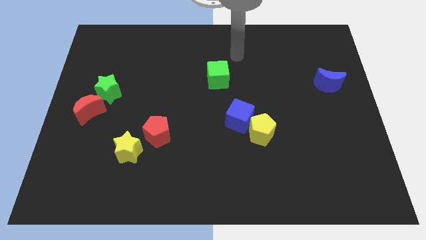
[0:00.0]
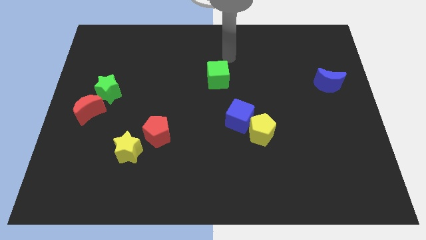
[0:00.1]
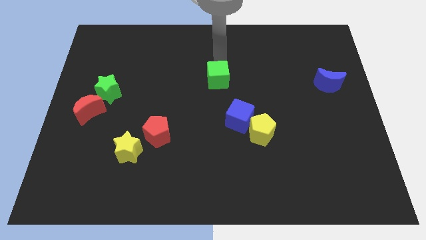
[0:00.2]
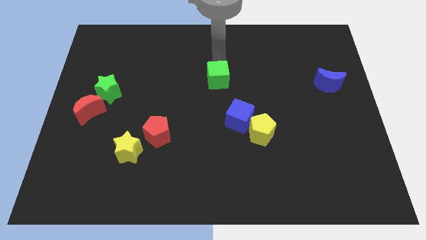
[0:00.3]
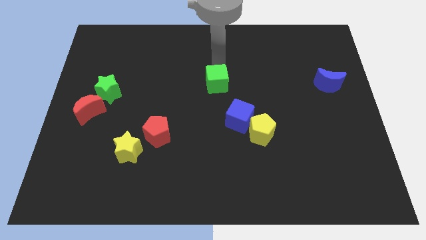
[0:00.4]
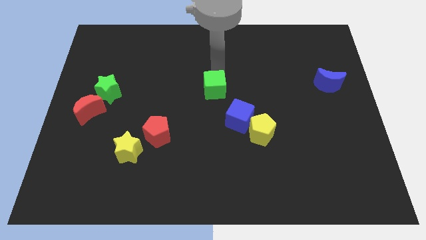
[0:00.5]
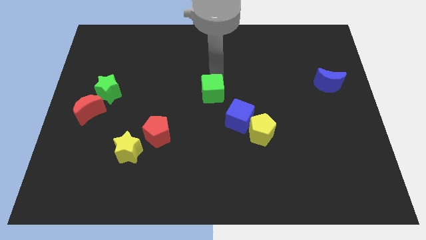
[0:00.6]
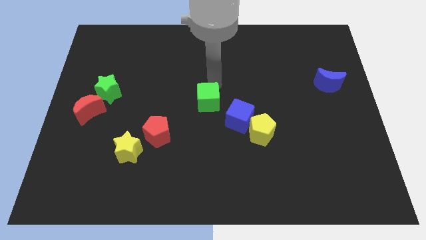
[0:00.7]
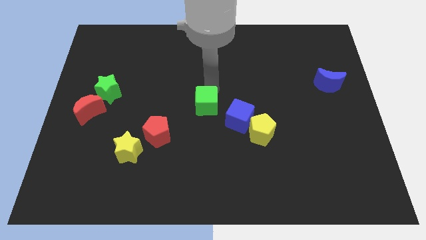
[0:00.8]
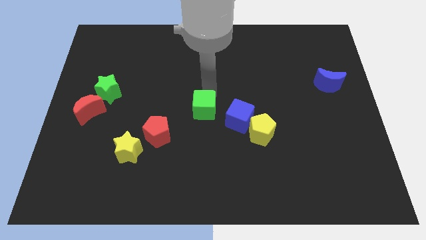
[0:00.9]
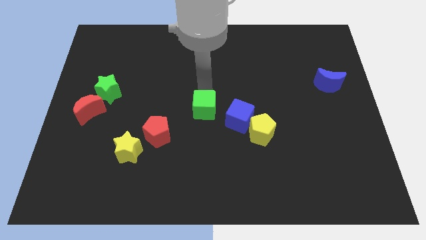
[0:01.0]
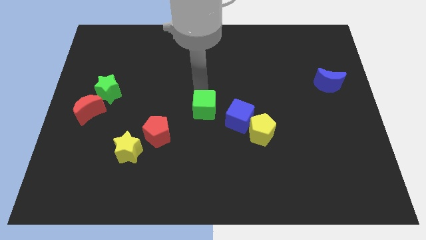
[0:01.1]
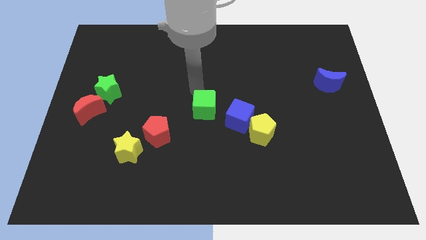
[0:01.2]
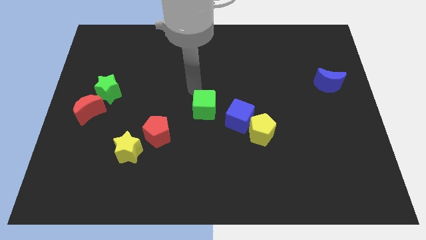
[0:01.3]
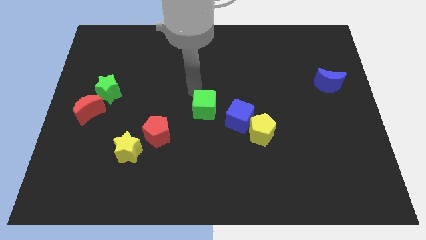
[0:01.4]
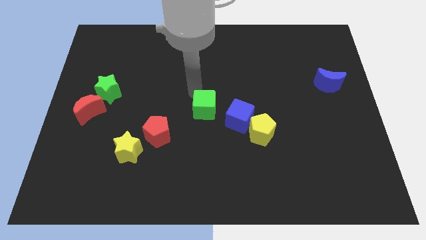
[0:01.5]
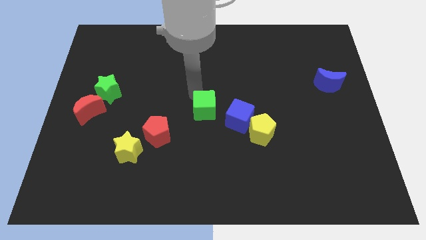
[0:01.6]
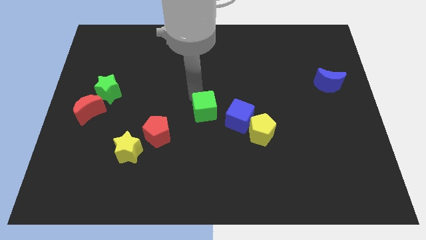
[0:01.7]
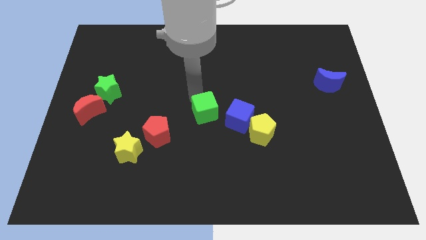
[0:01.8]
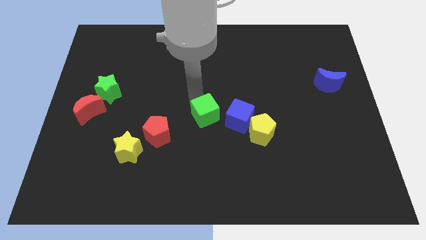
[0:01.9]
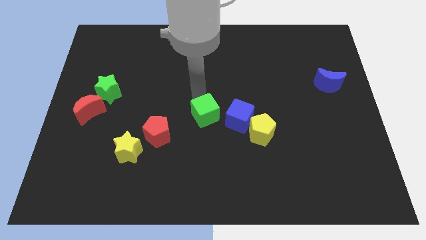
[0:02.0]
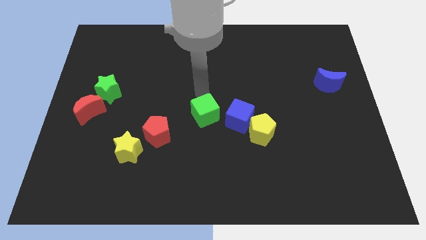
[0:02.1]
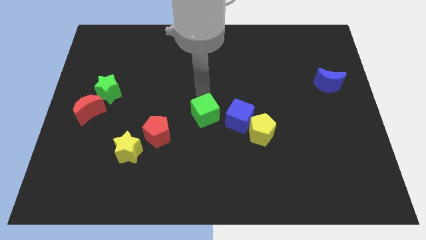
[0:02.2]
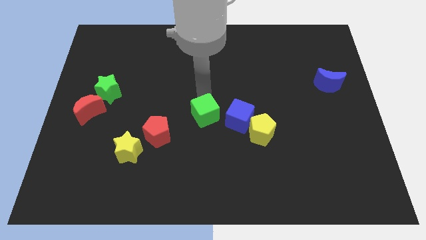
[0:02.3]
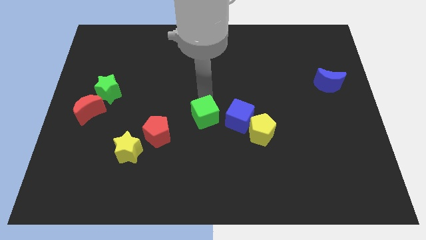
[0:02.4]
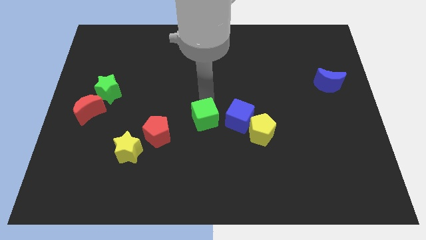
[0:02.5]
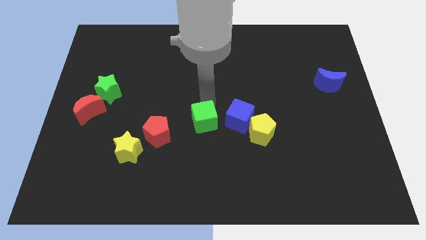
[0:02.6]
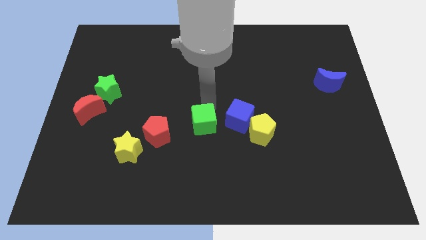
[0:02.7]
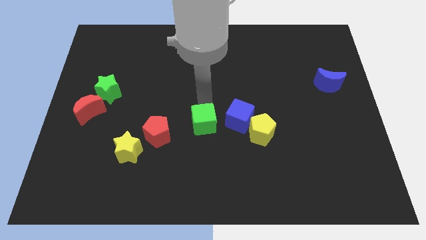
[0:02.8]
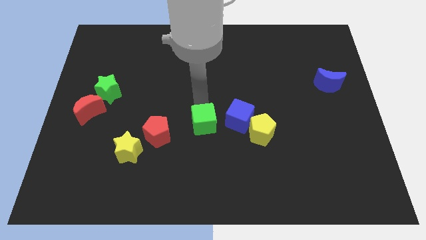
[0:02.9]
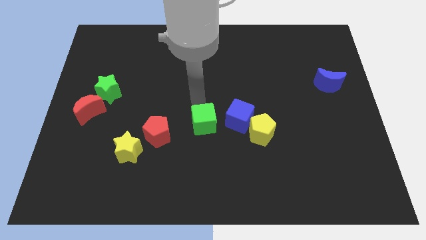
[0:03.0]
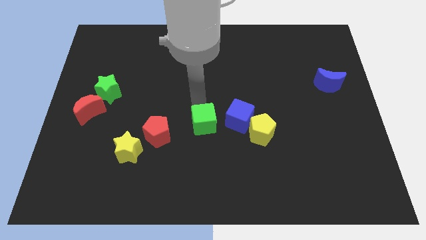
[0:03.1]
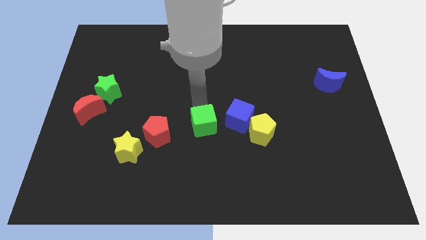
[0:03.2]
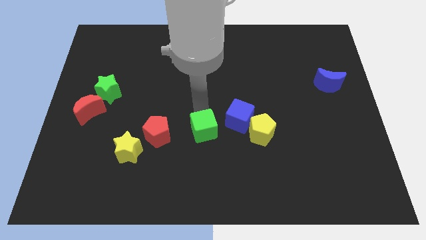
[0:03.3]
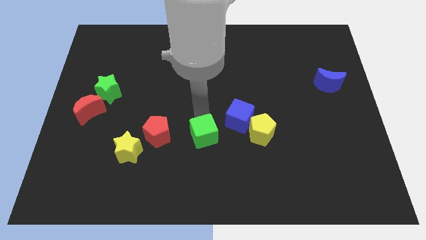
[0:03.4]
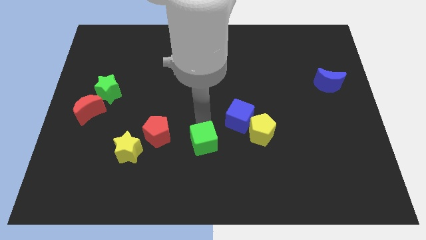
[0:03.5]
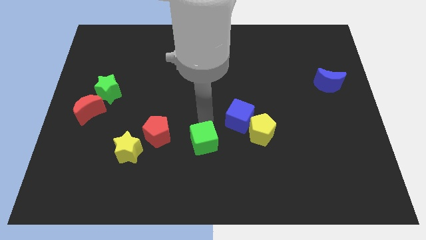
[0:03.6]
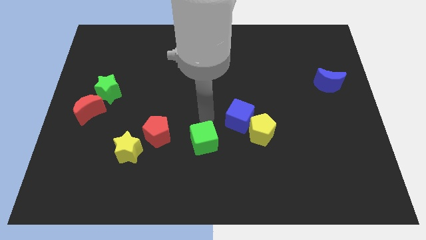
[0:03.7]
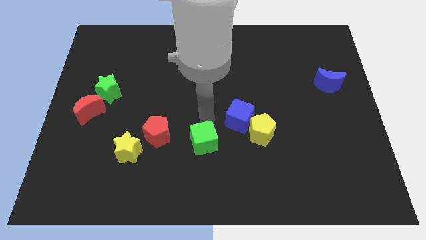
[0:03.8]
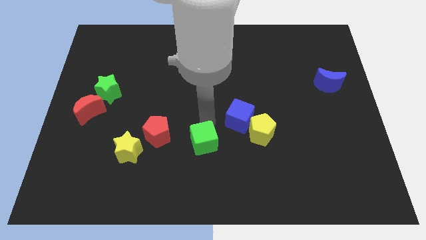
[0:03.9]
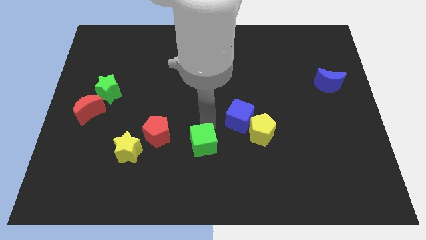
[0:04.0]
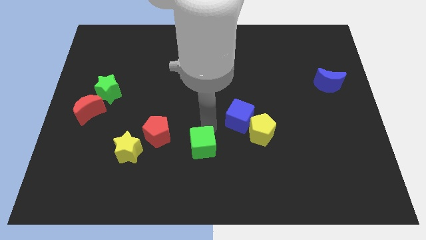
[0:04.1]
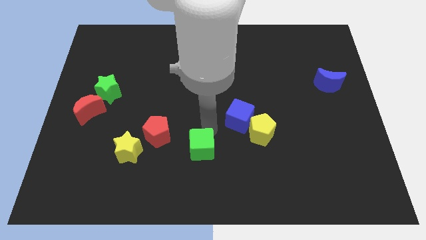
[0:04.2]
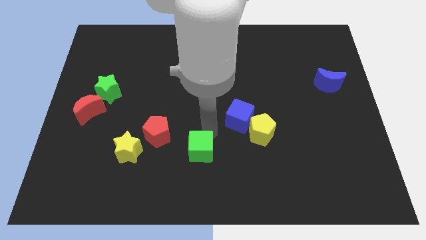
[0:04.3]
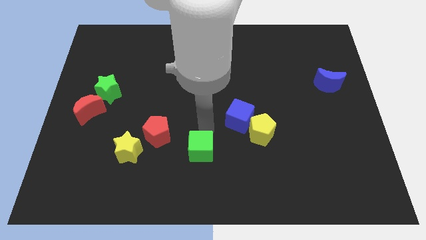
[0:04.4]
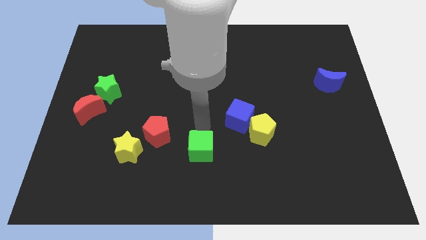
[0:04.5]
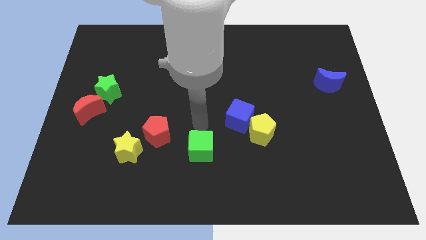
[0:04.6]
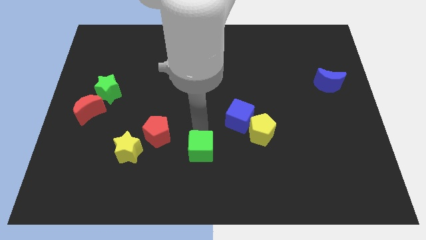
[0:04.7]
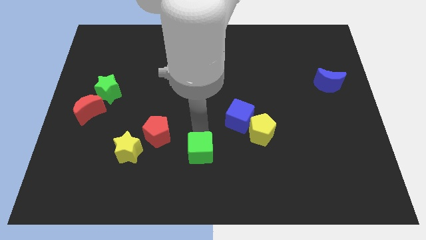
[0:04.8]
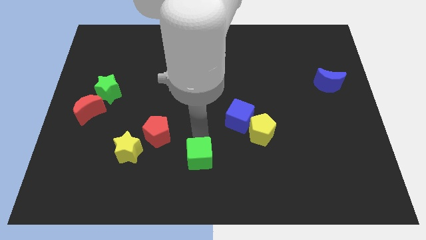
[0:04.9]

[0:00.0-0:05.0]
push the green cube to the bottom side

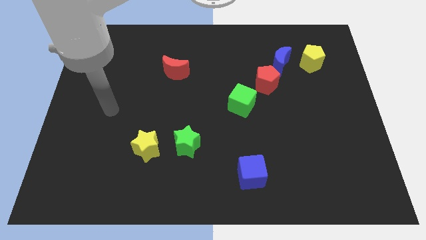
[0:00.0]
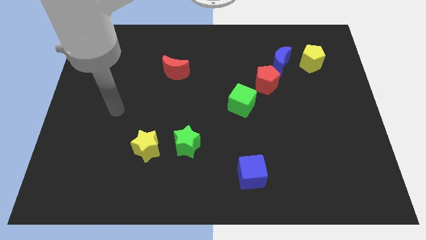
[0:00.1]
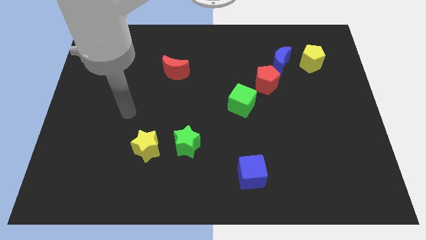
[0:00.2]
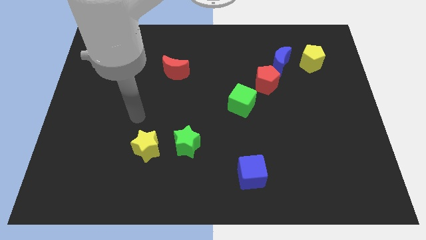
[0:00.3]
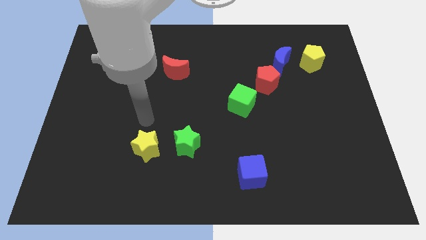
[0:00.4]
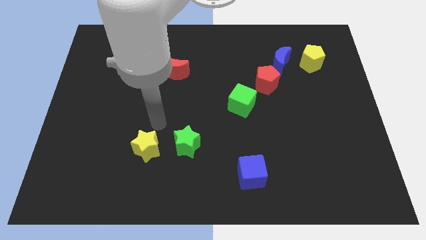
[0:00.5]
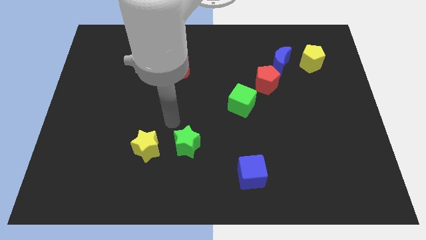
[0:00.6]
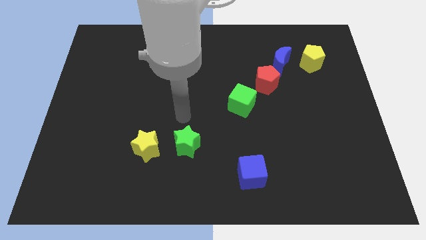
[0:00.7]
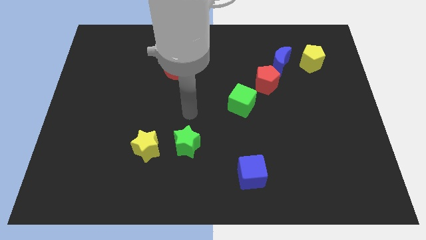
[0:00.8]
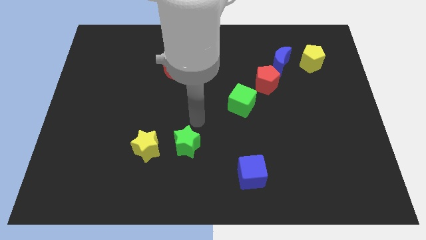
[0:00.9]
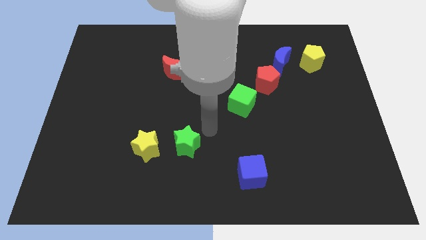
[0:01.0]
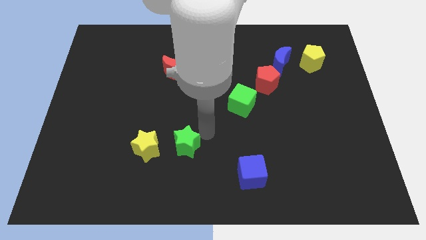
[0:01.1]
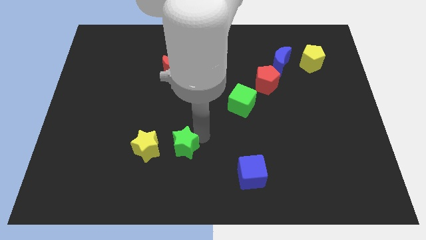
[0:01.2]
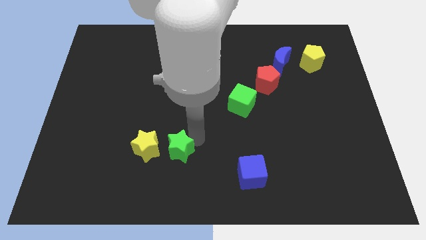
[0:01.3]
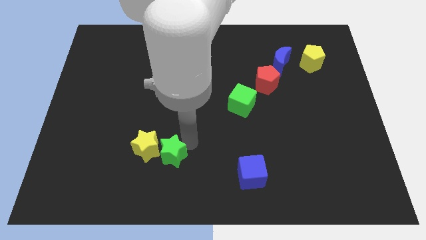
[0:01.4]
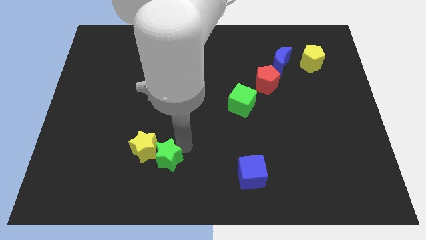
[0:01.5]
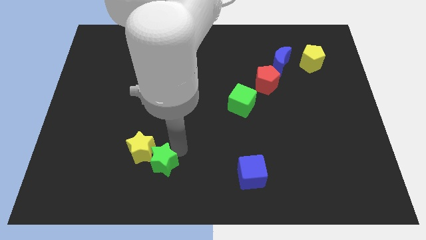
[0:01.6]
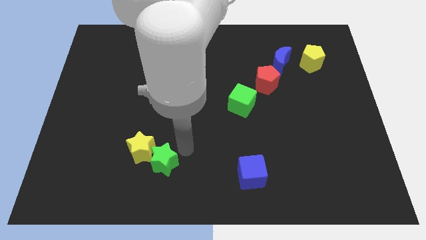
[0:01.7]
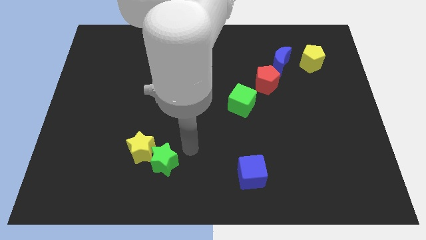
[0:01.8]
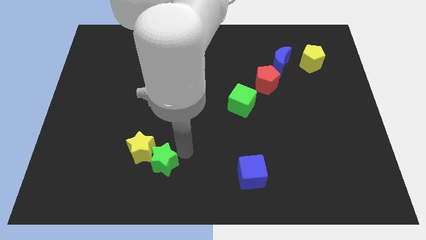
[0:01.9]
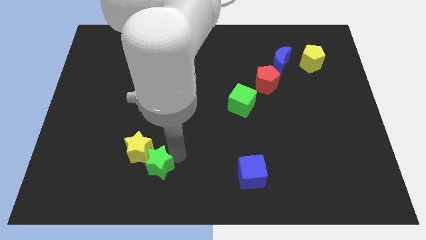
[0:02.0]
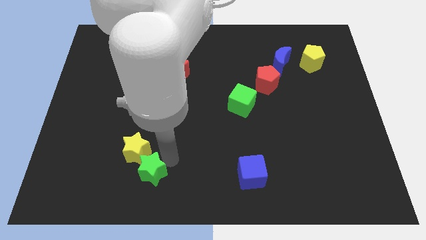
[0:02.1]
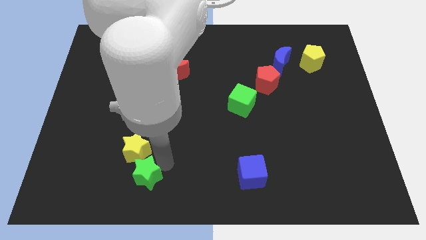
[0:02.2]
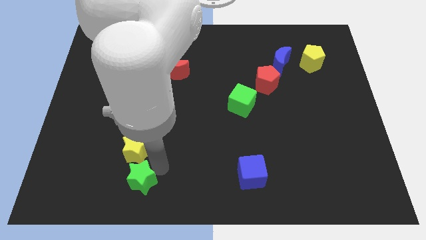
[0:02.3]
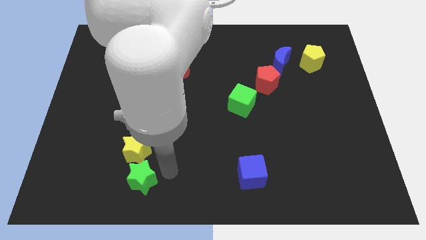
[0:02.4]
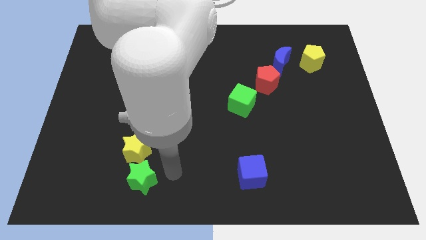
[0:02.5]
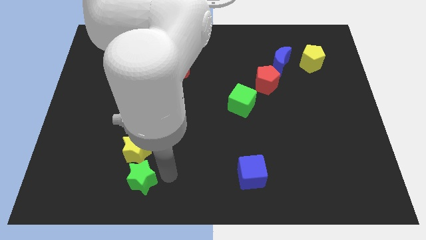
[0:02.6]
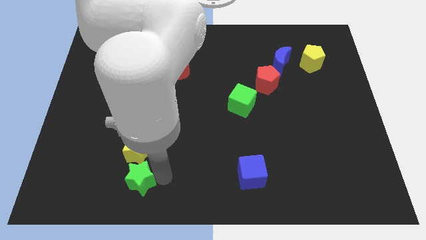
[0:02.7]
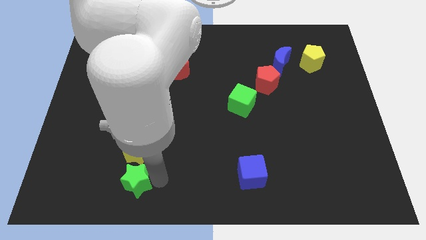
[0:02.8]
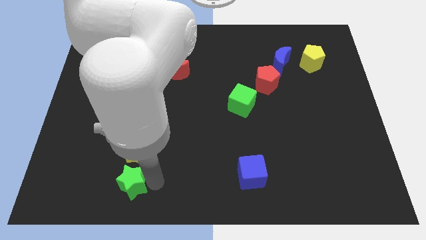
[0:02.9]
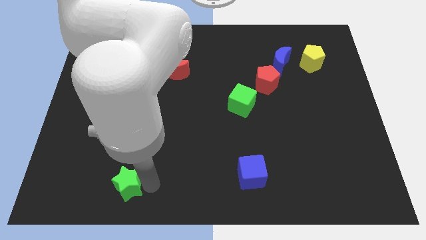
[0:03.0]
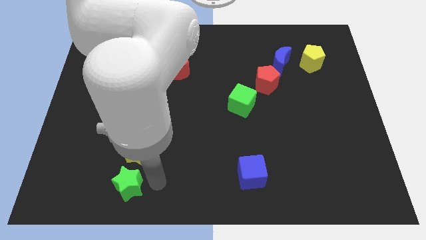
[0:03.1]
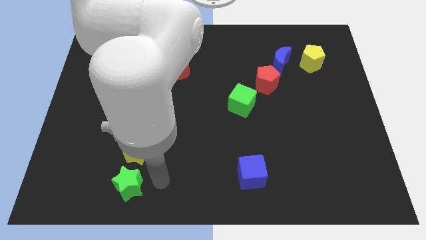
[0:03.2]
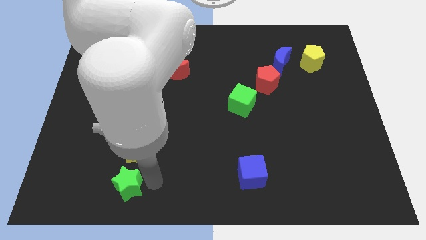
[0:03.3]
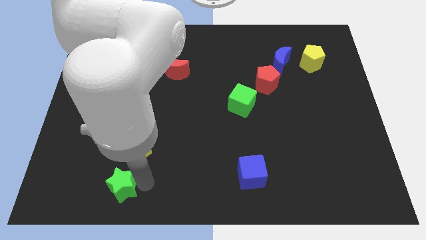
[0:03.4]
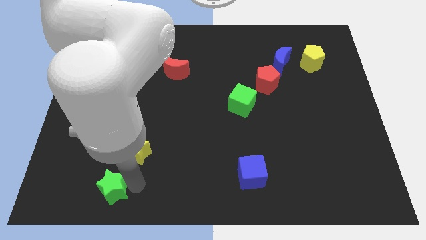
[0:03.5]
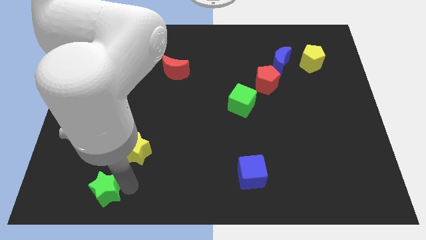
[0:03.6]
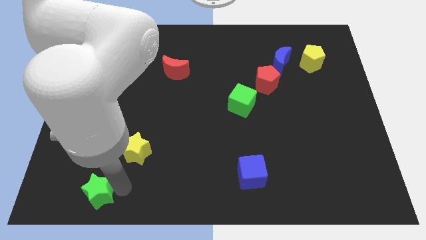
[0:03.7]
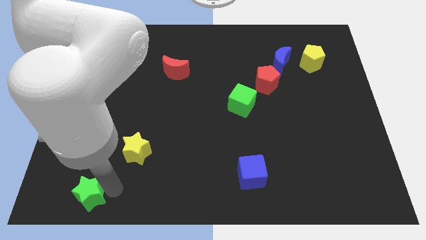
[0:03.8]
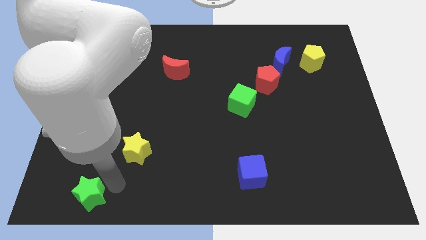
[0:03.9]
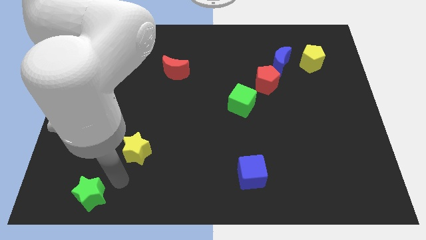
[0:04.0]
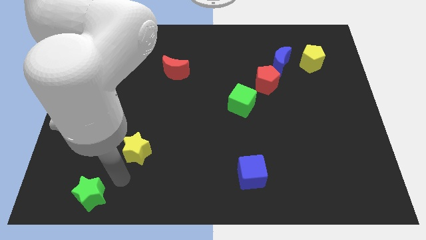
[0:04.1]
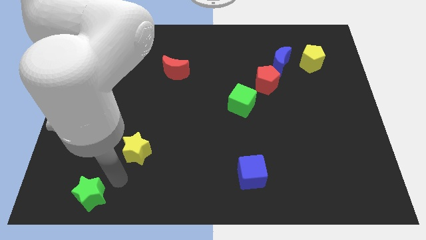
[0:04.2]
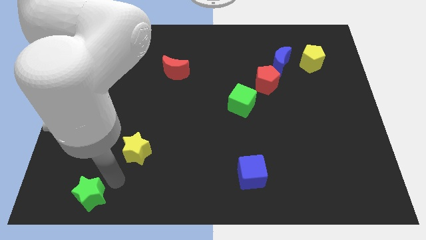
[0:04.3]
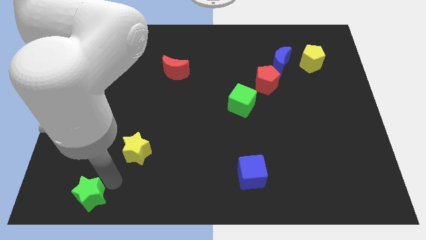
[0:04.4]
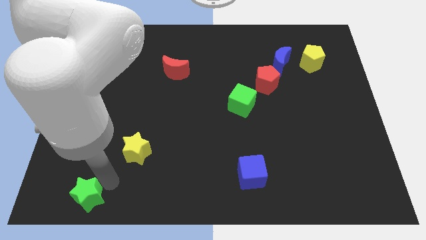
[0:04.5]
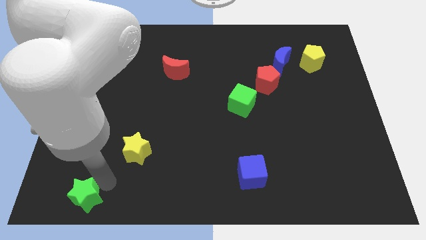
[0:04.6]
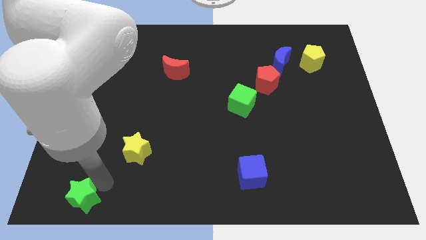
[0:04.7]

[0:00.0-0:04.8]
put the green star to the lower left corner
